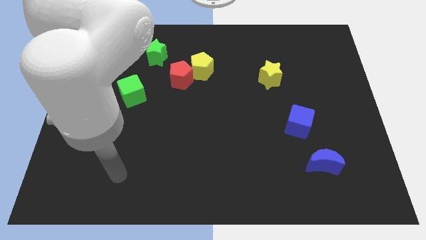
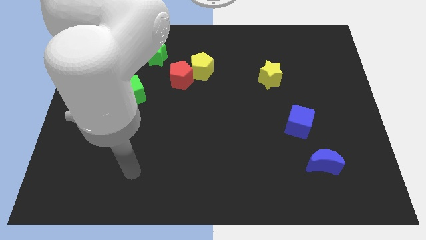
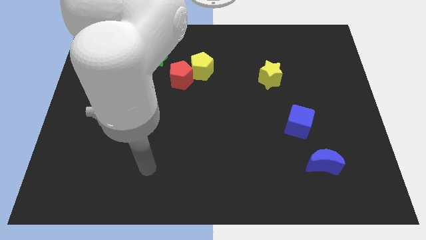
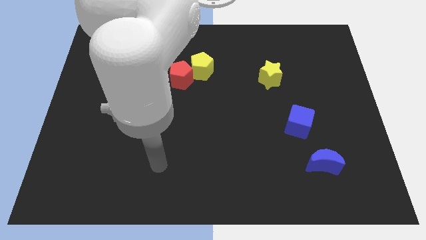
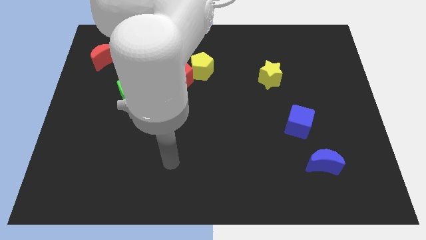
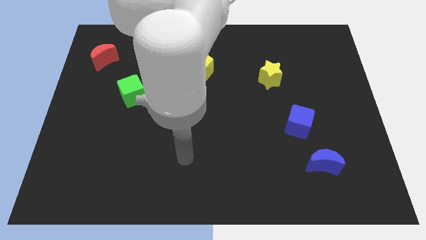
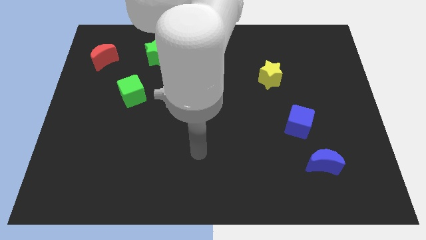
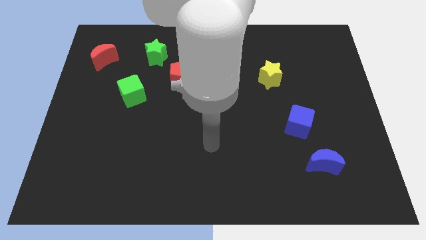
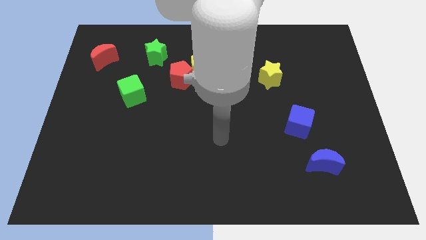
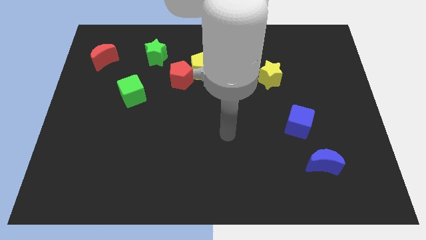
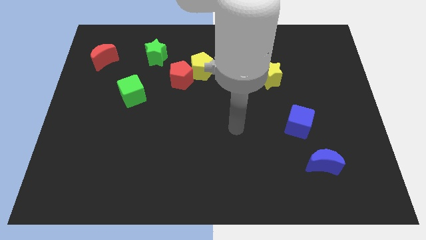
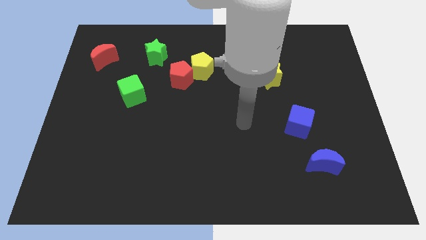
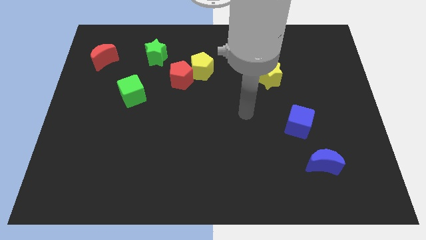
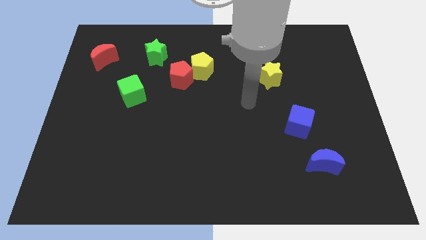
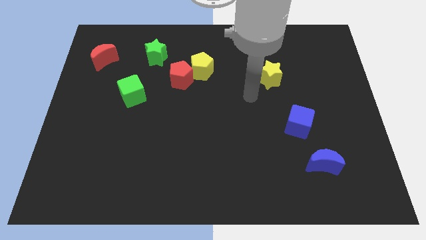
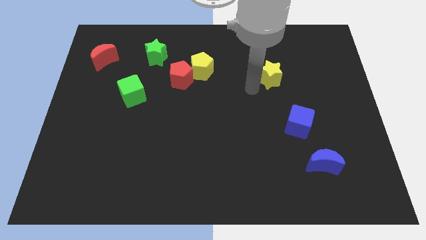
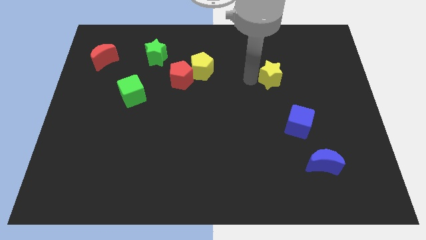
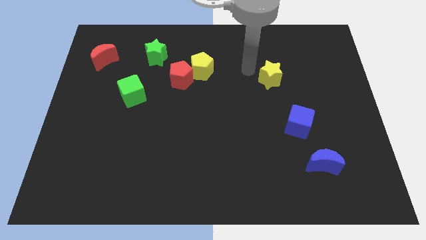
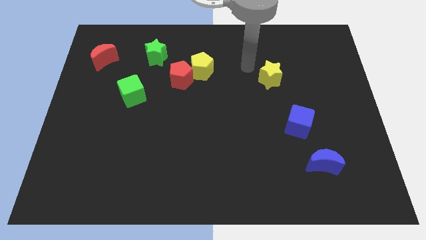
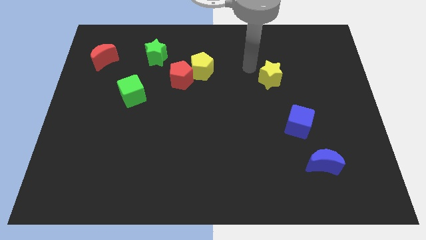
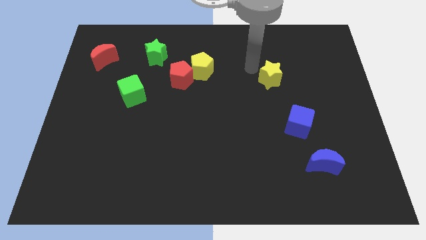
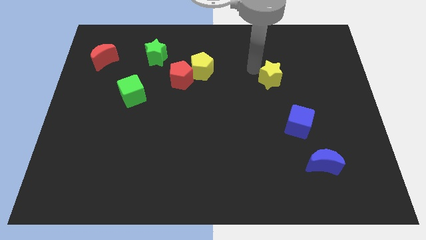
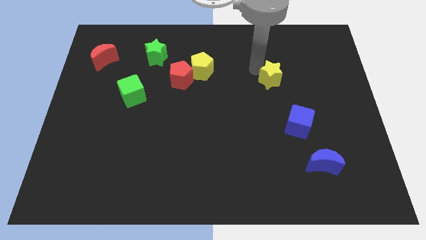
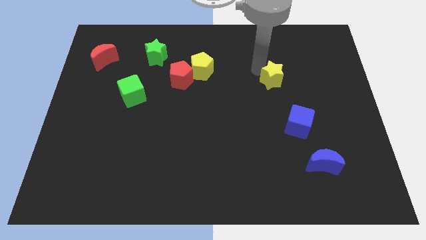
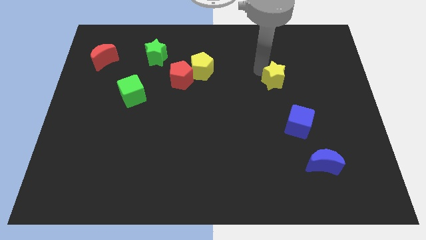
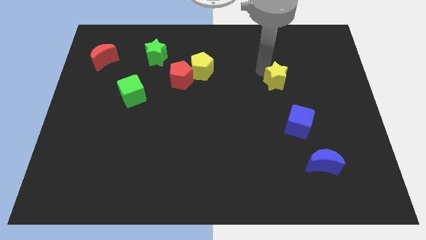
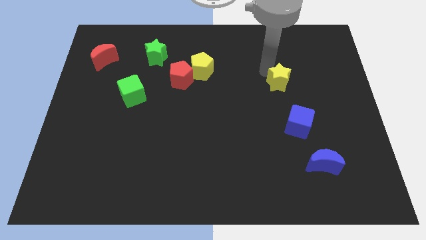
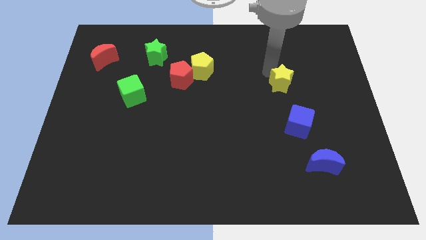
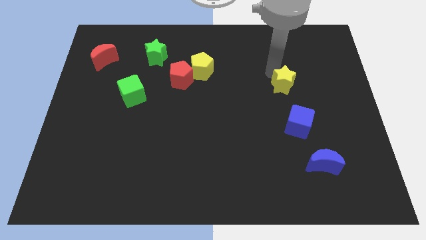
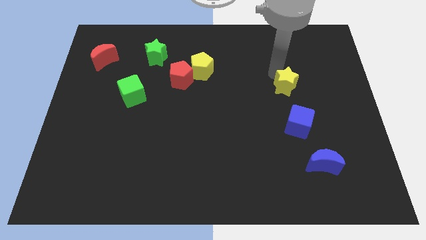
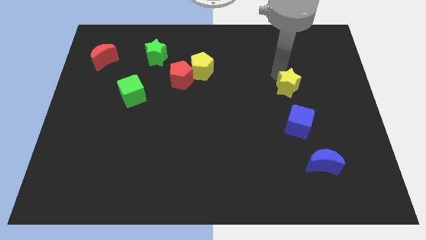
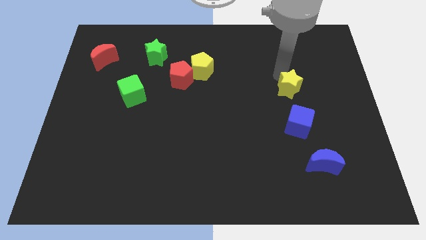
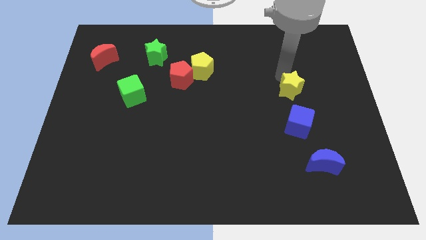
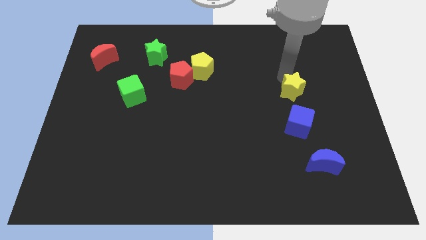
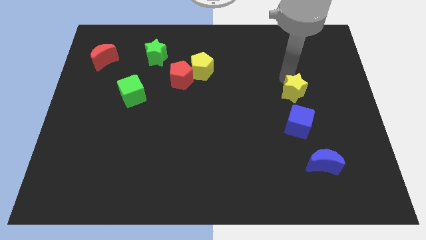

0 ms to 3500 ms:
slide the yellow star diagonally down and right a little

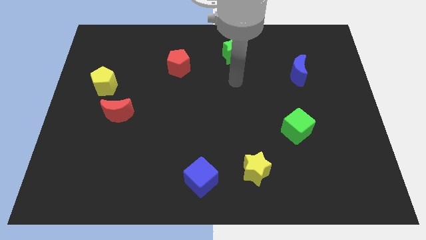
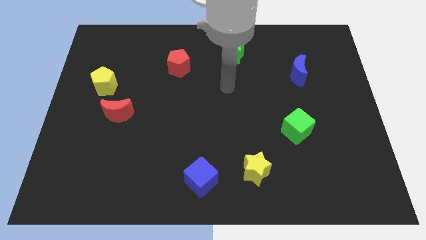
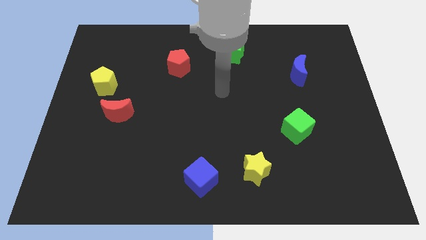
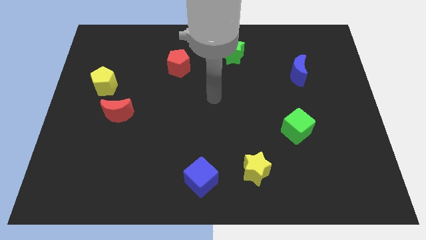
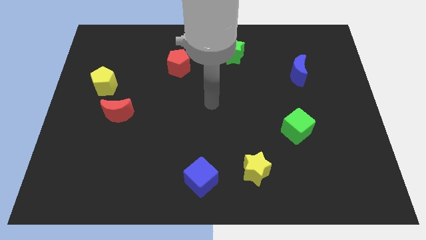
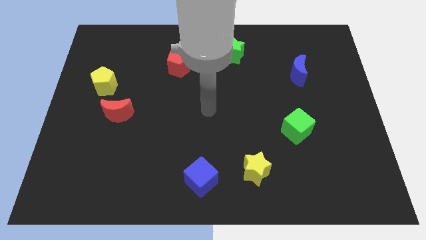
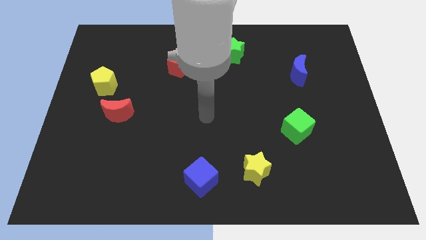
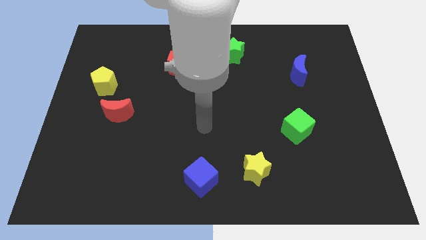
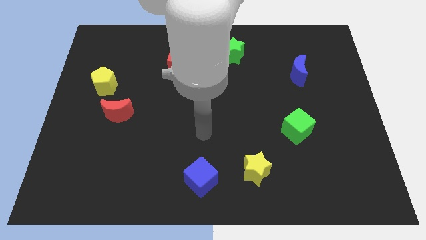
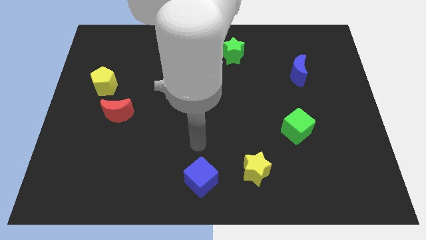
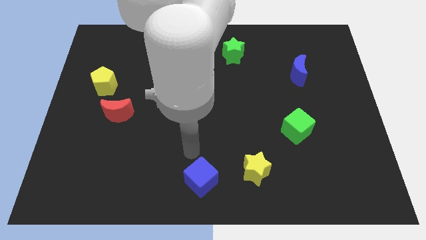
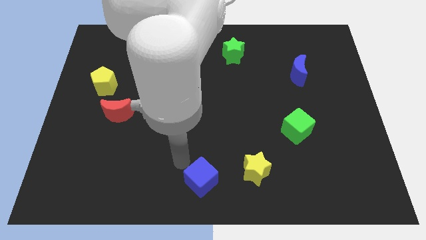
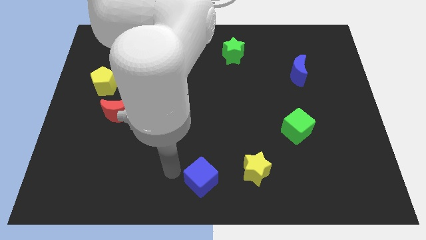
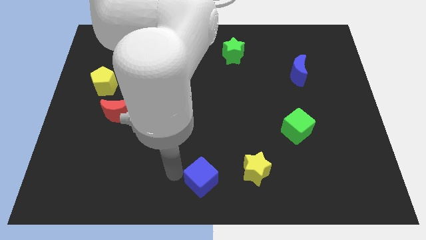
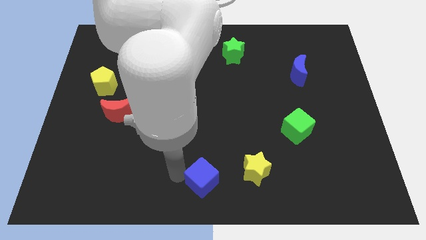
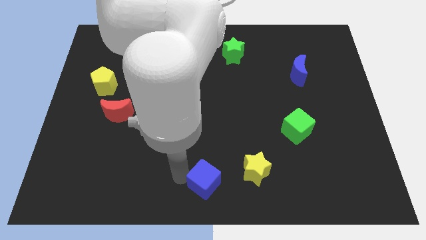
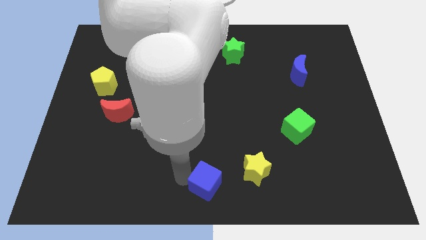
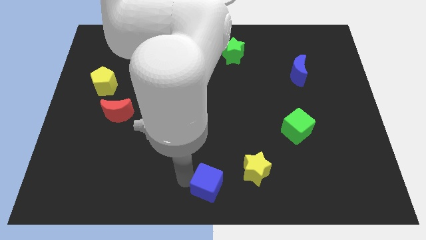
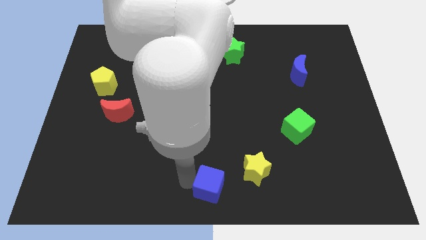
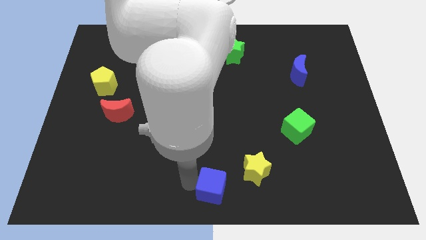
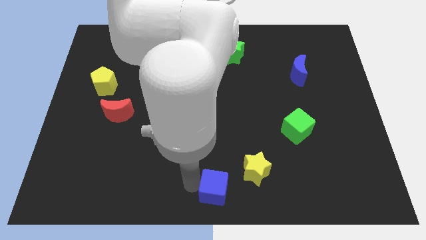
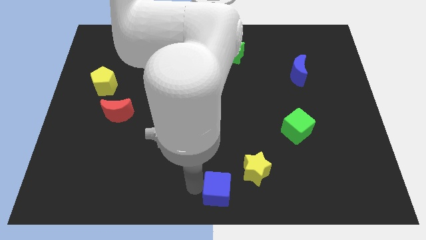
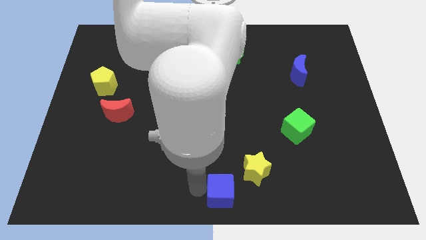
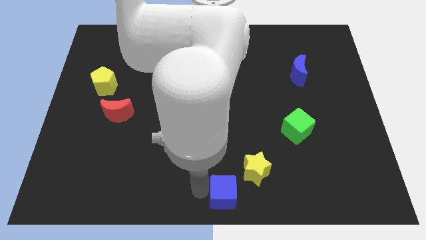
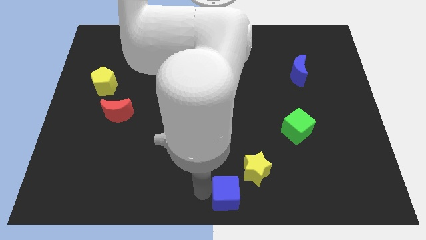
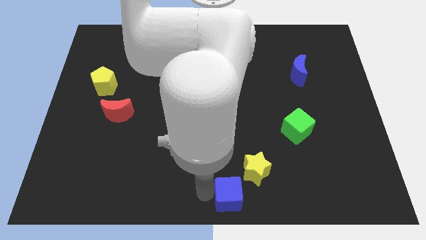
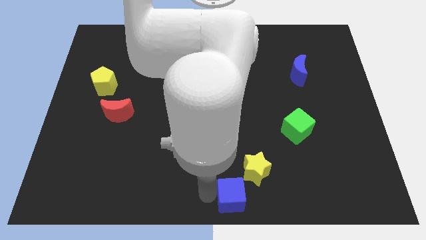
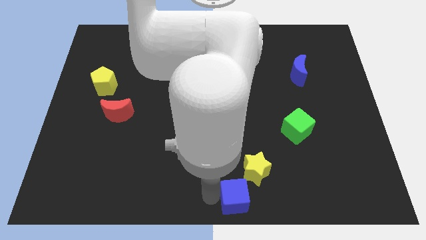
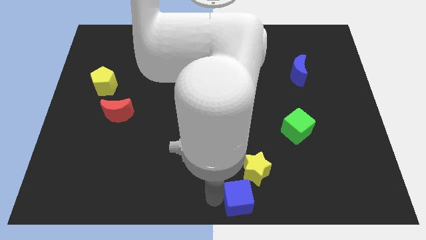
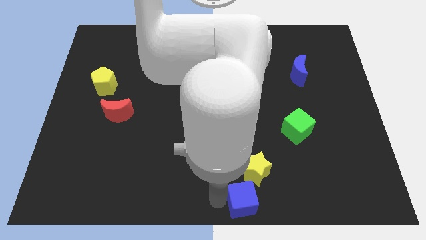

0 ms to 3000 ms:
slide the blue cube a bit to the right

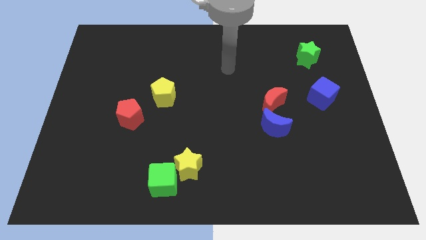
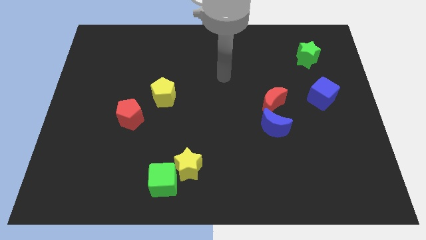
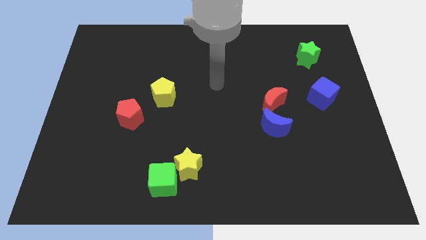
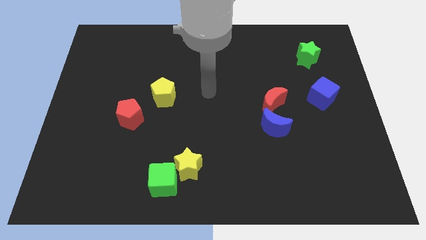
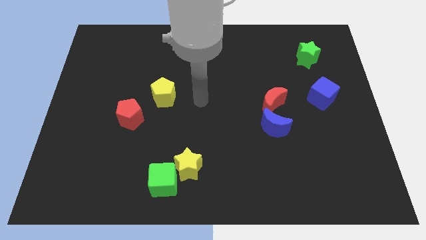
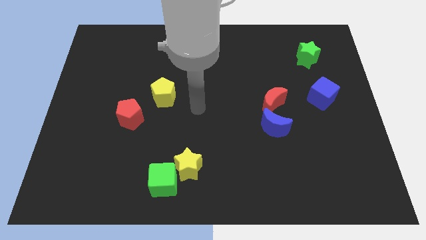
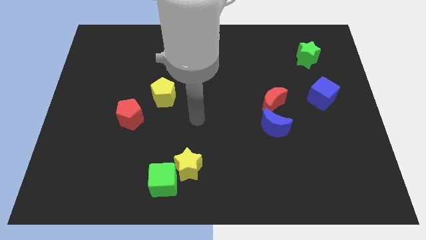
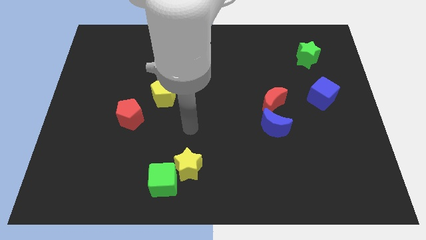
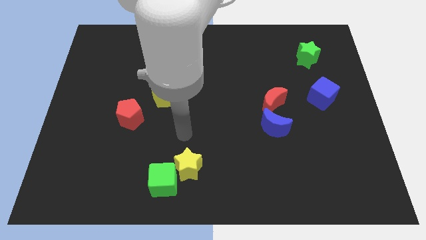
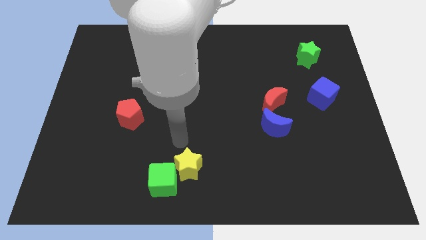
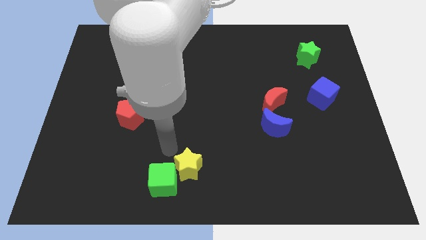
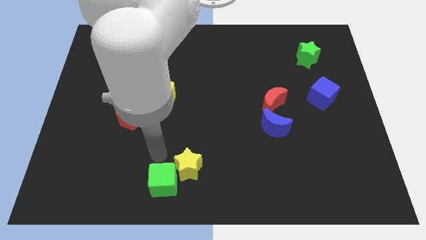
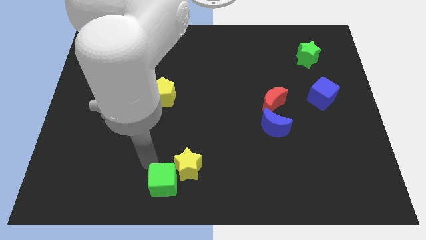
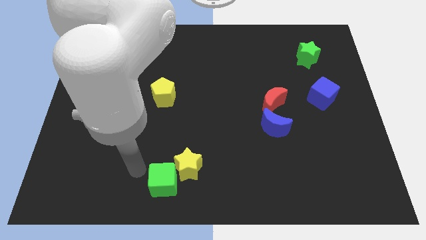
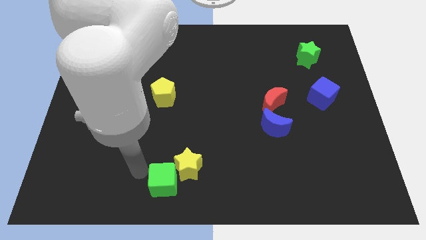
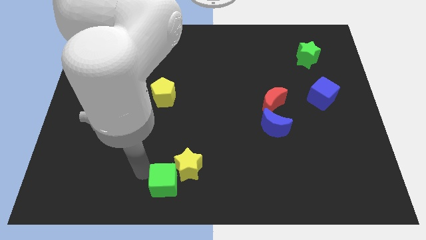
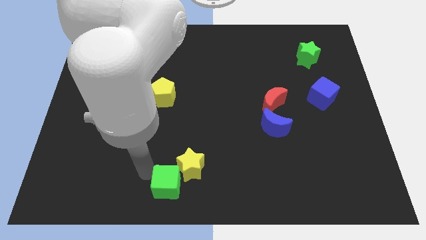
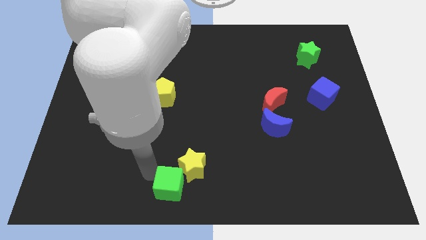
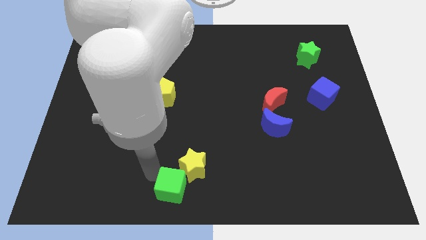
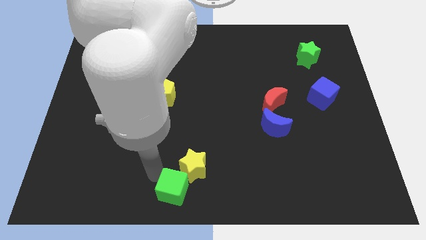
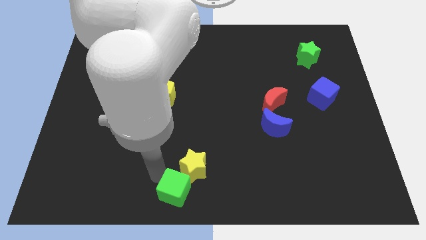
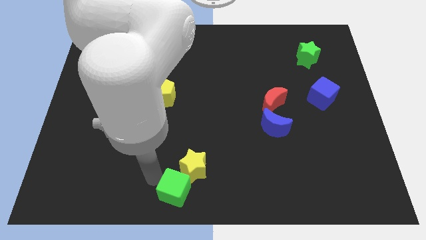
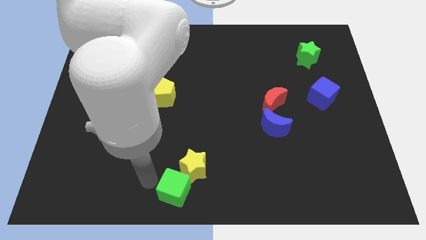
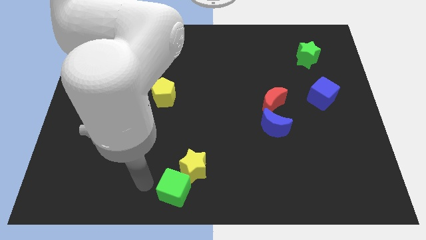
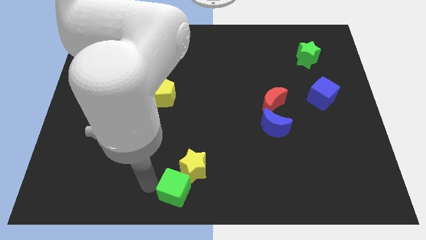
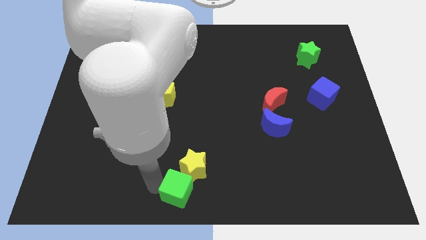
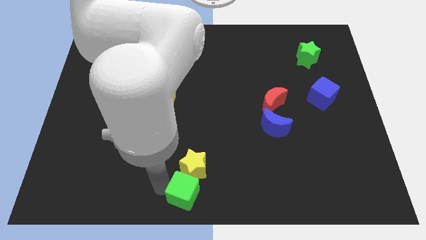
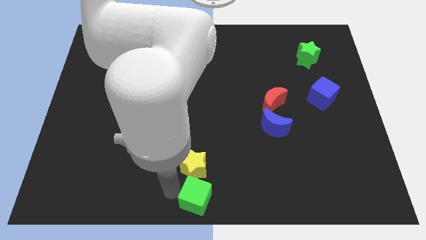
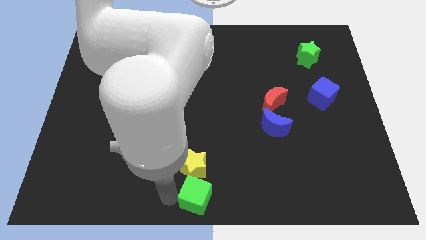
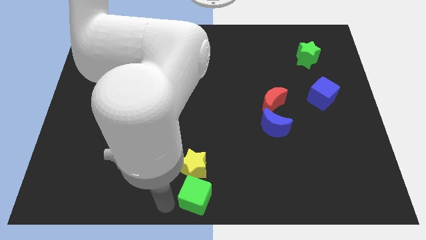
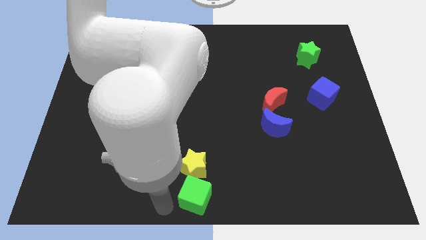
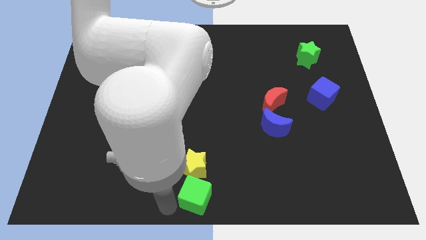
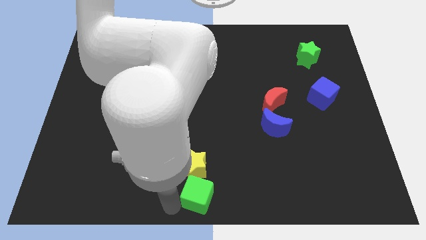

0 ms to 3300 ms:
push the green cube to the right slightly
